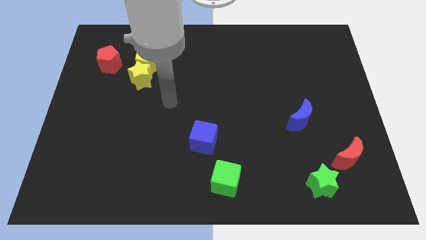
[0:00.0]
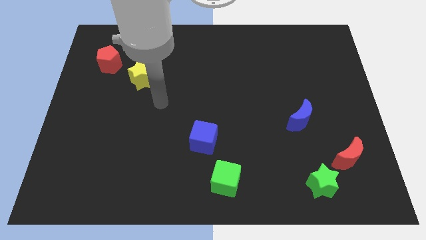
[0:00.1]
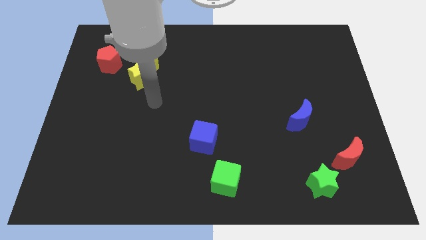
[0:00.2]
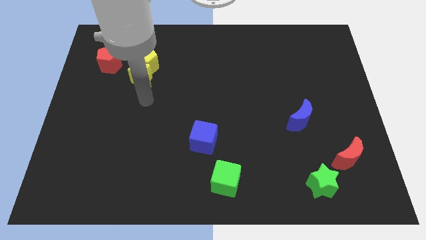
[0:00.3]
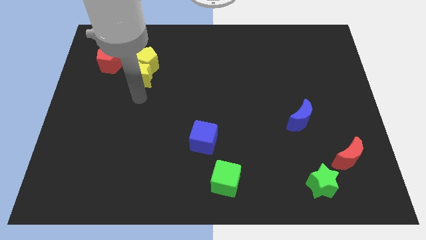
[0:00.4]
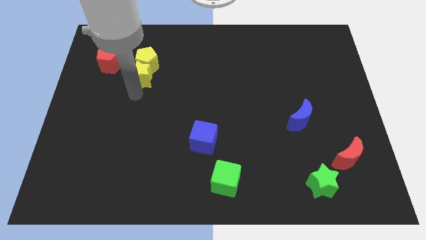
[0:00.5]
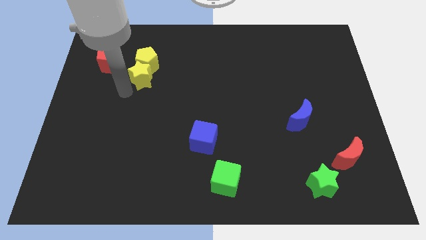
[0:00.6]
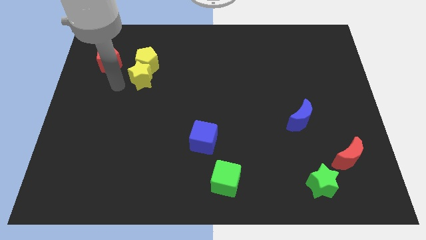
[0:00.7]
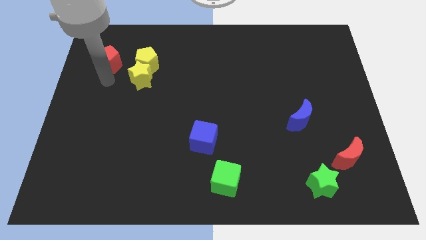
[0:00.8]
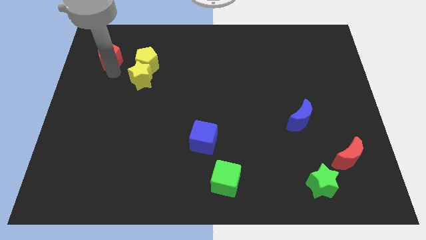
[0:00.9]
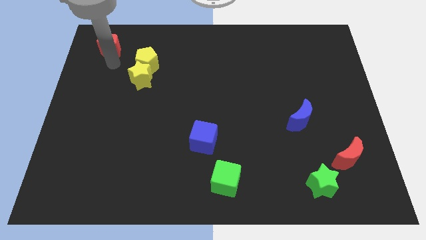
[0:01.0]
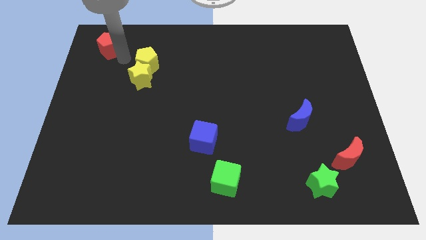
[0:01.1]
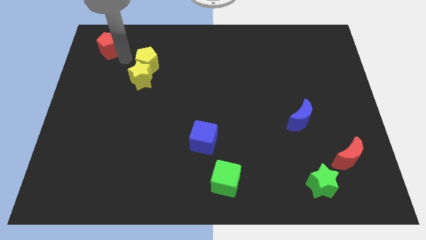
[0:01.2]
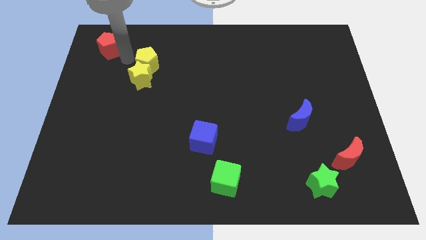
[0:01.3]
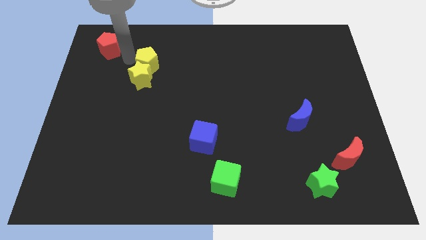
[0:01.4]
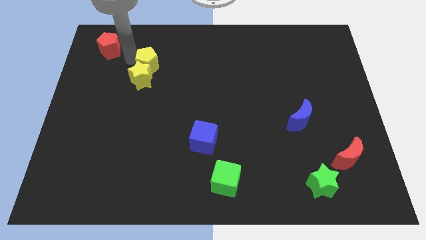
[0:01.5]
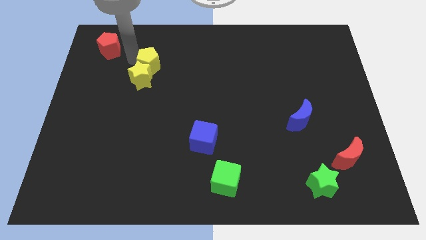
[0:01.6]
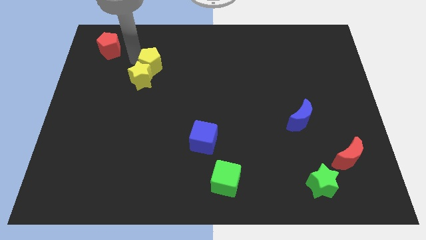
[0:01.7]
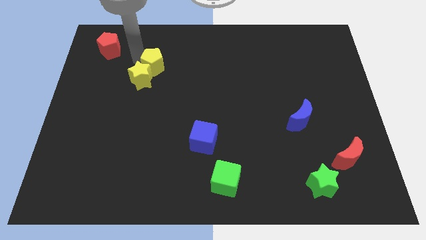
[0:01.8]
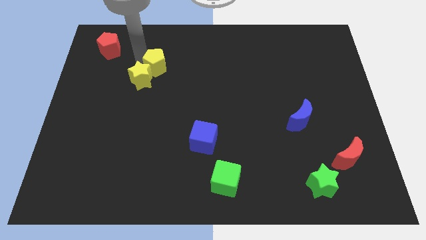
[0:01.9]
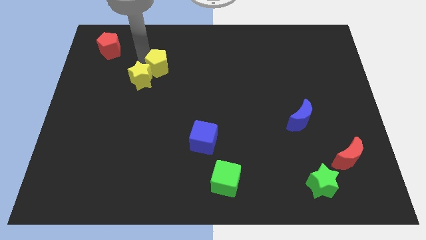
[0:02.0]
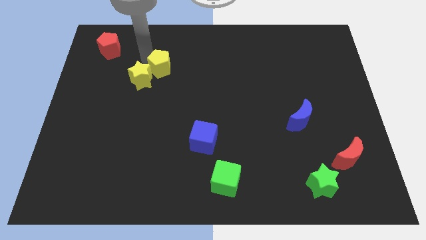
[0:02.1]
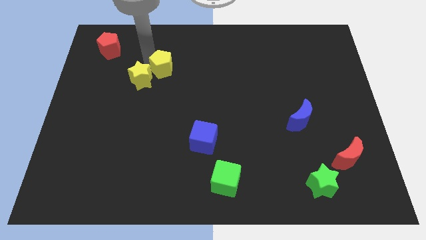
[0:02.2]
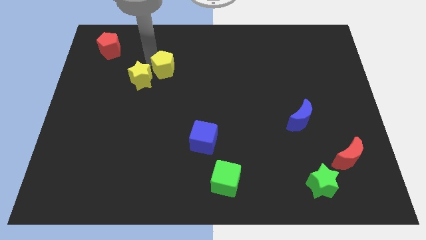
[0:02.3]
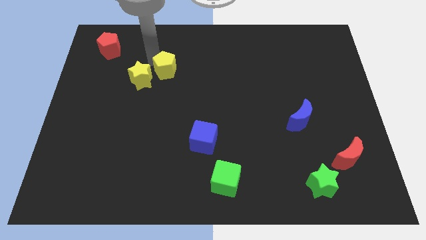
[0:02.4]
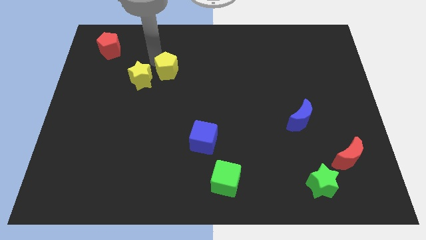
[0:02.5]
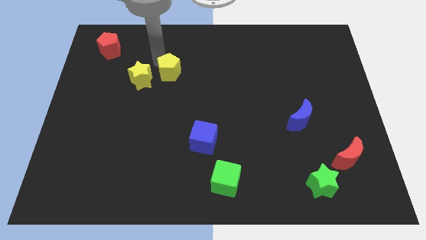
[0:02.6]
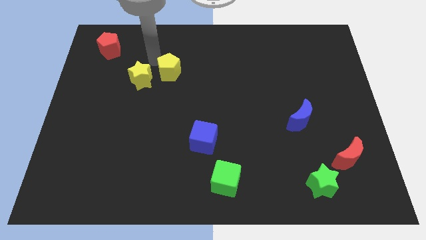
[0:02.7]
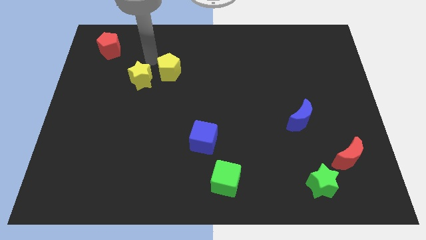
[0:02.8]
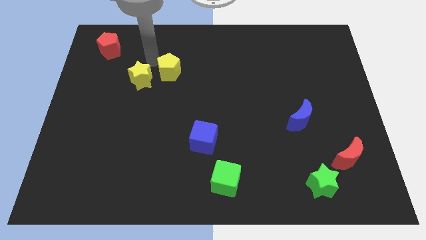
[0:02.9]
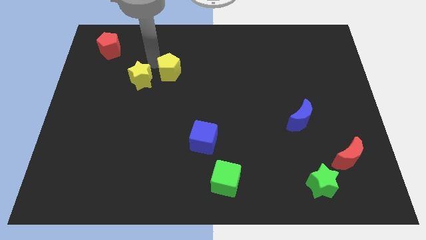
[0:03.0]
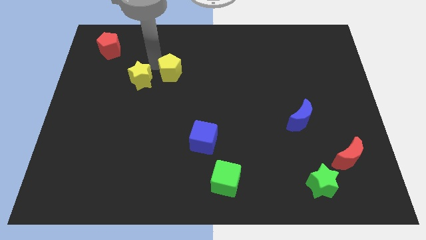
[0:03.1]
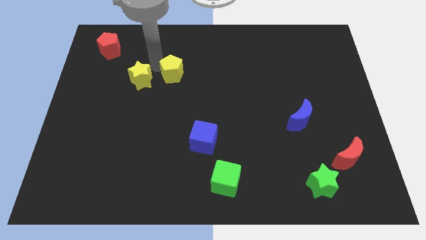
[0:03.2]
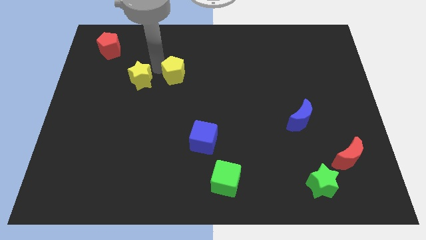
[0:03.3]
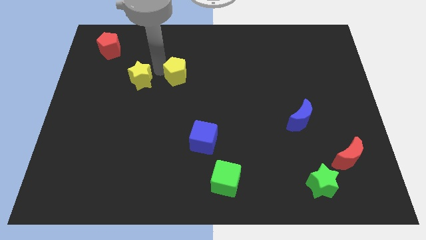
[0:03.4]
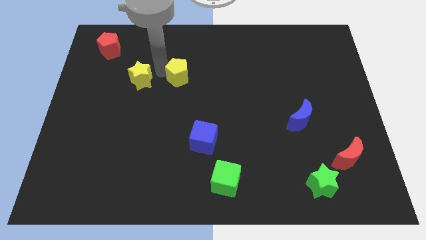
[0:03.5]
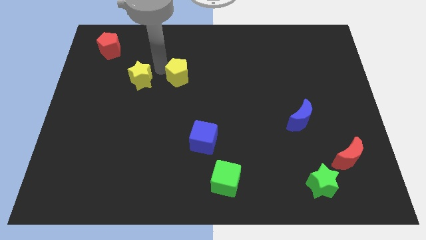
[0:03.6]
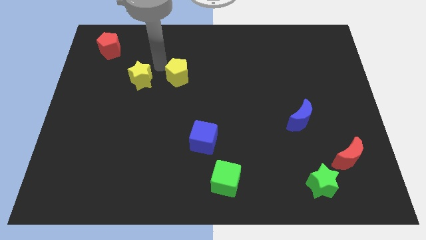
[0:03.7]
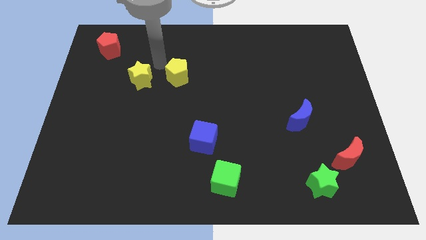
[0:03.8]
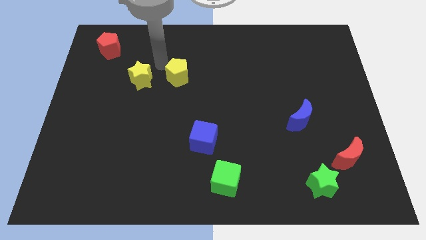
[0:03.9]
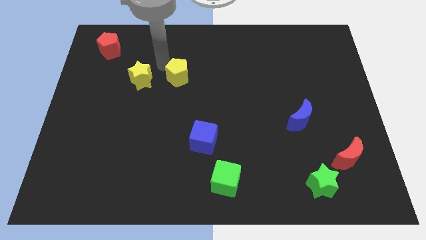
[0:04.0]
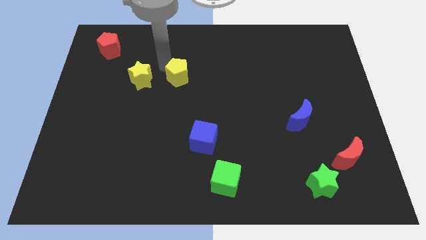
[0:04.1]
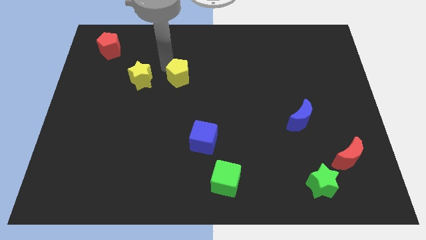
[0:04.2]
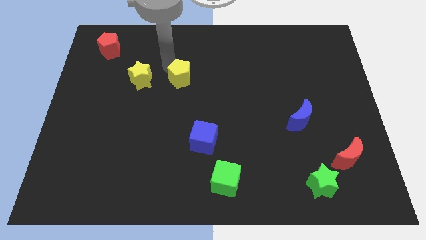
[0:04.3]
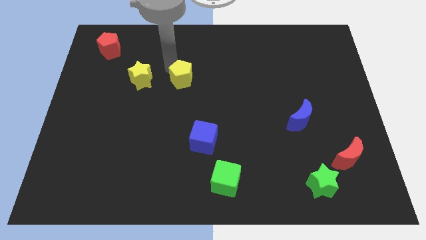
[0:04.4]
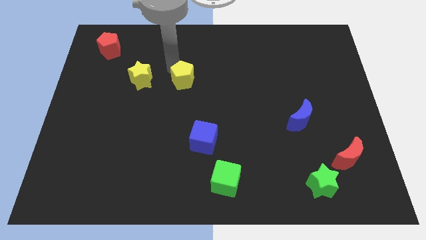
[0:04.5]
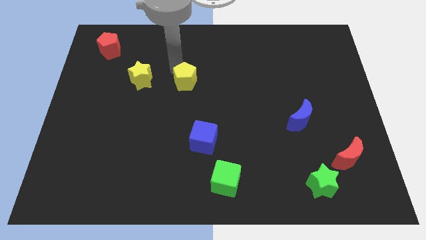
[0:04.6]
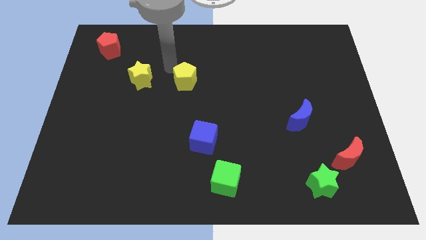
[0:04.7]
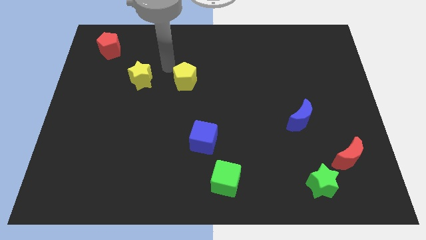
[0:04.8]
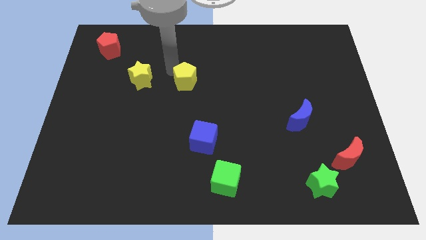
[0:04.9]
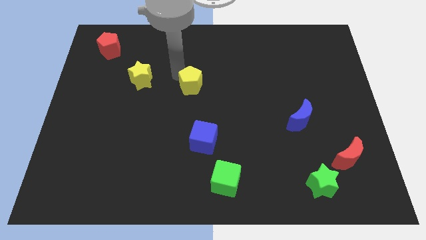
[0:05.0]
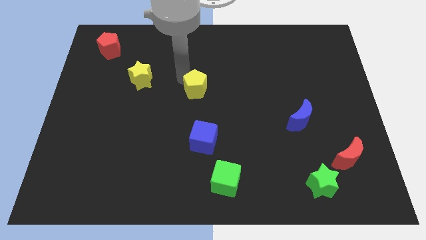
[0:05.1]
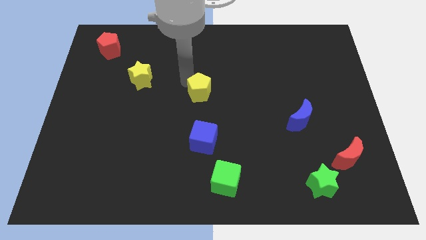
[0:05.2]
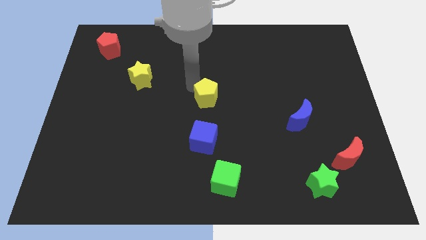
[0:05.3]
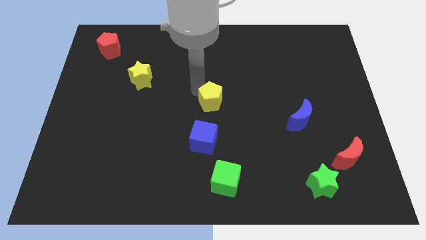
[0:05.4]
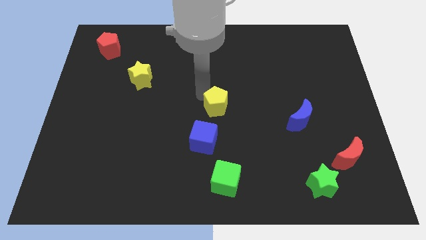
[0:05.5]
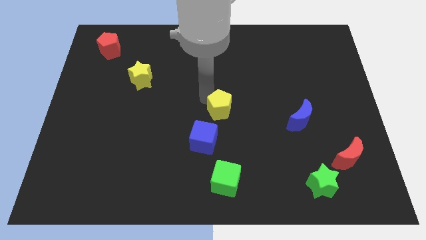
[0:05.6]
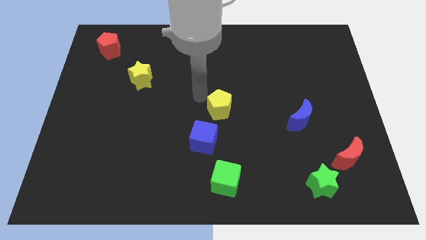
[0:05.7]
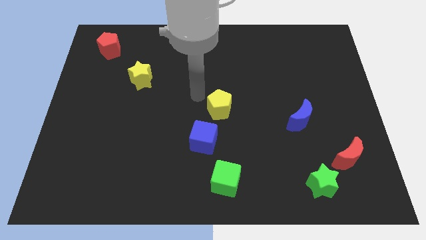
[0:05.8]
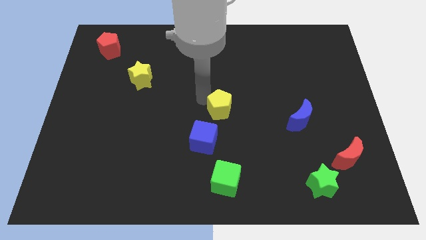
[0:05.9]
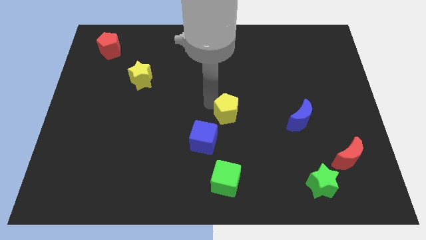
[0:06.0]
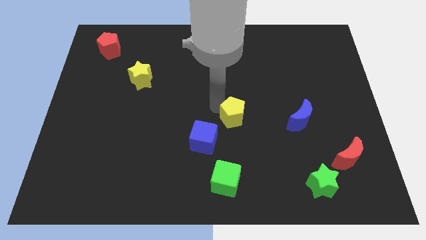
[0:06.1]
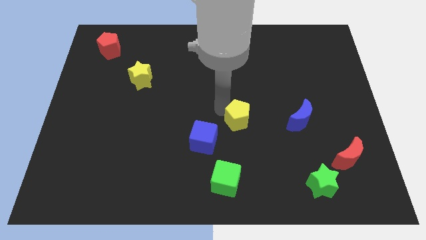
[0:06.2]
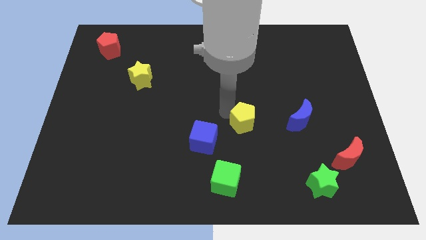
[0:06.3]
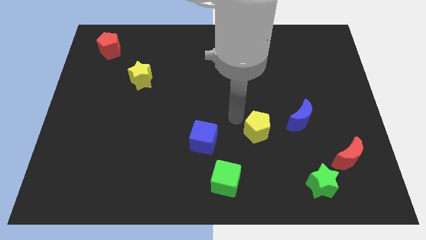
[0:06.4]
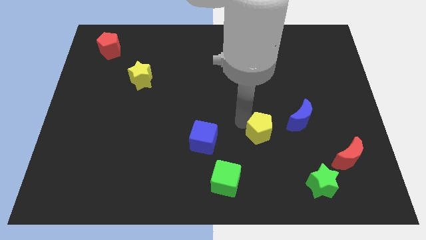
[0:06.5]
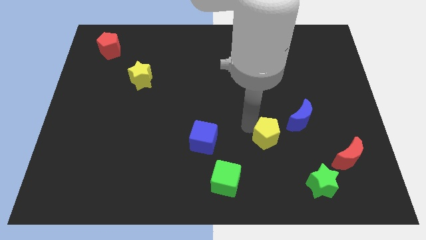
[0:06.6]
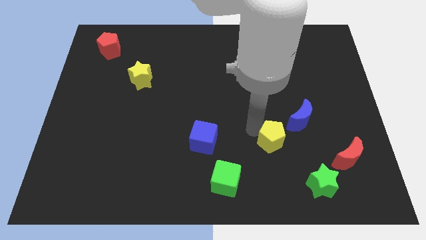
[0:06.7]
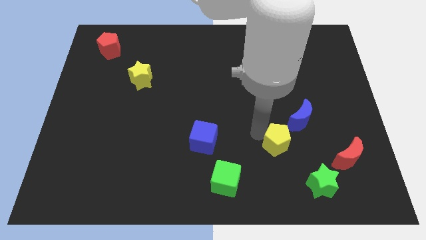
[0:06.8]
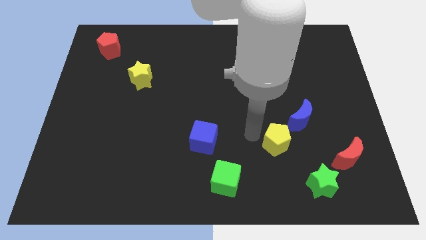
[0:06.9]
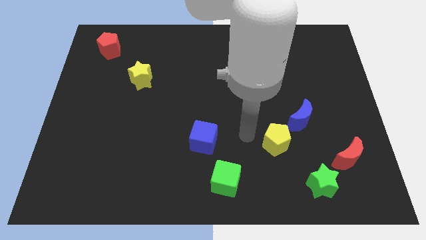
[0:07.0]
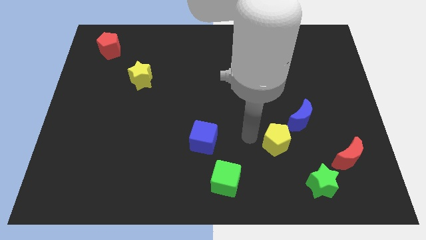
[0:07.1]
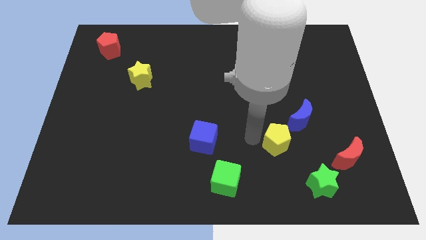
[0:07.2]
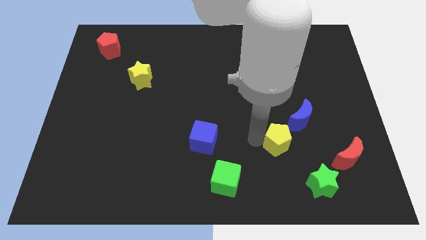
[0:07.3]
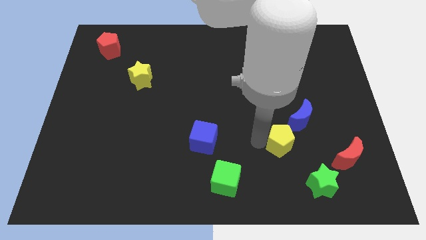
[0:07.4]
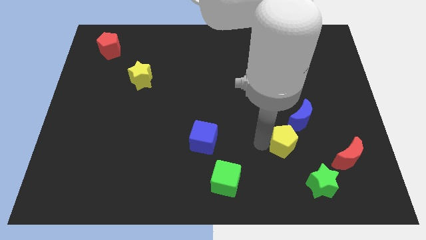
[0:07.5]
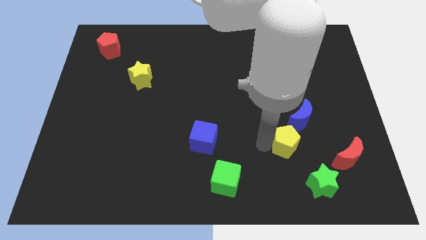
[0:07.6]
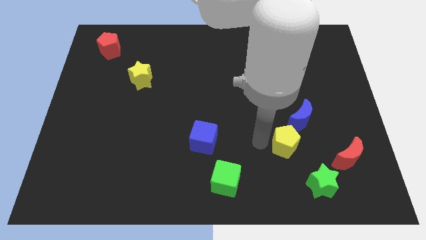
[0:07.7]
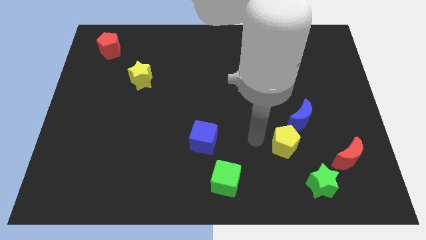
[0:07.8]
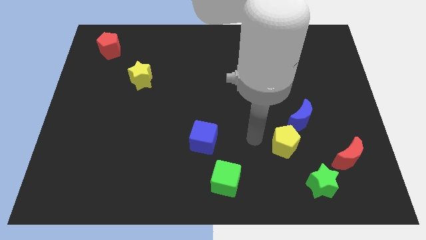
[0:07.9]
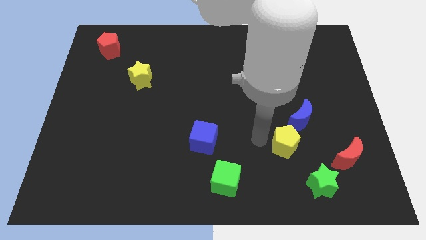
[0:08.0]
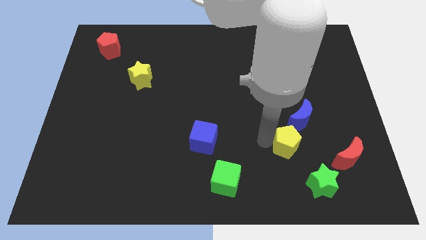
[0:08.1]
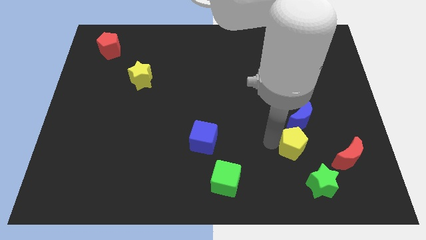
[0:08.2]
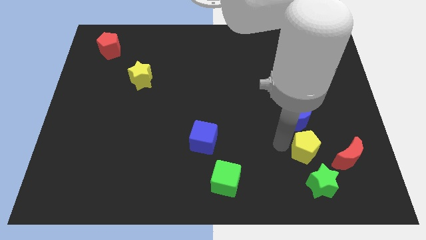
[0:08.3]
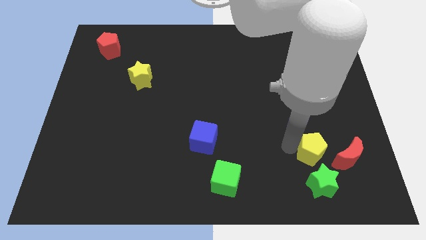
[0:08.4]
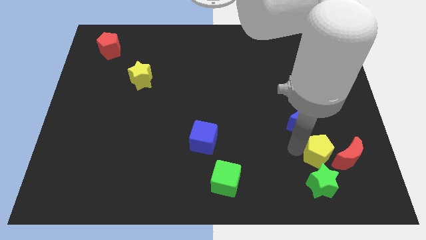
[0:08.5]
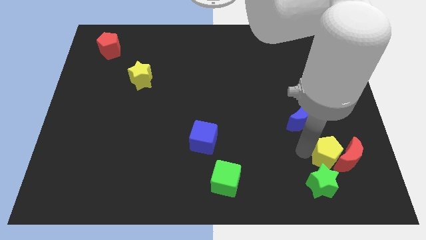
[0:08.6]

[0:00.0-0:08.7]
slide the yellow pentagon close to the red moon
